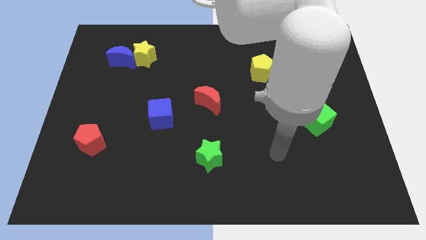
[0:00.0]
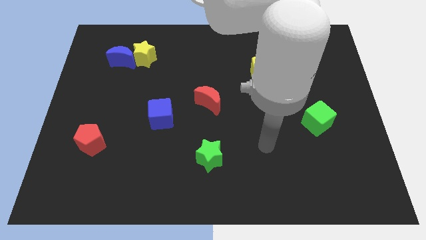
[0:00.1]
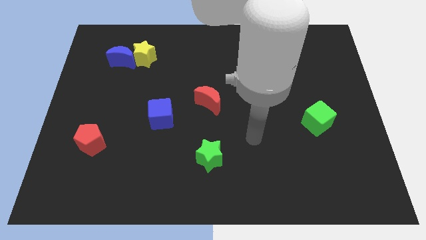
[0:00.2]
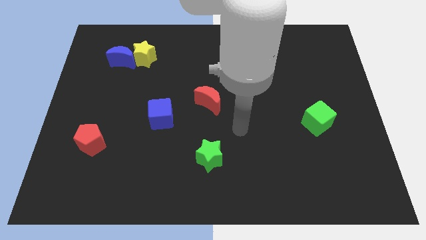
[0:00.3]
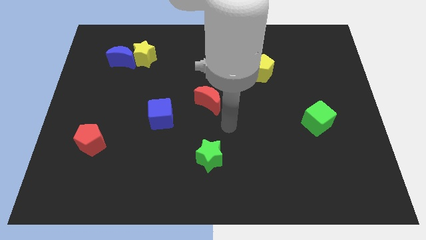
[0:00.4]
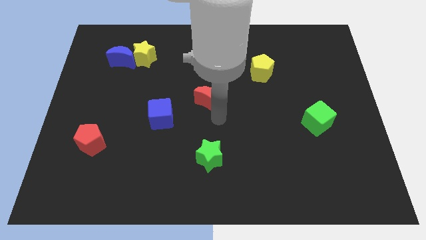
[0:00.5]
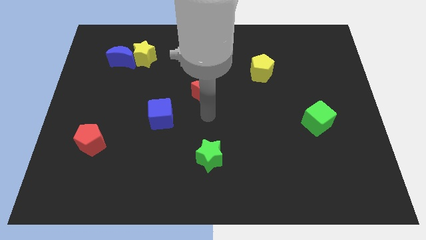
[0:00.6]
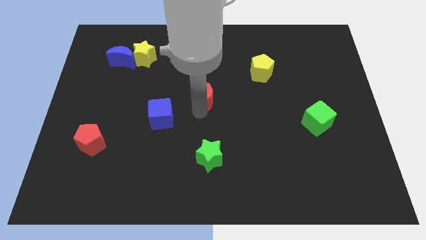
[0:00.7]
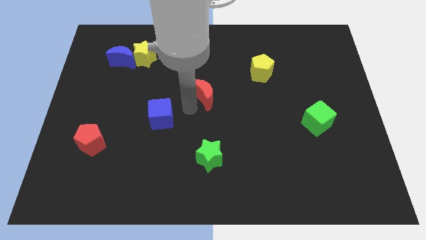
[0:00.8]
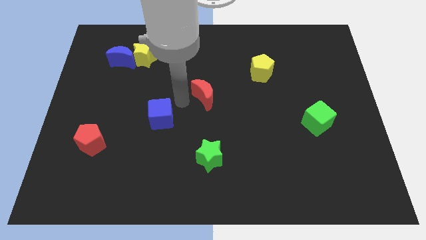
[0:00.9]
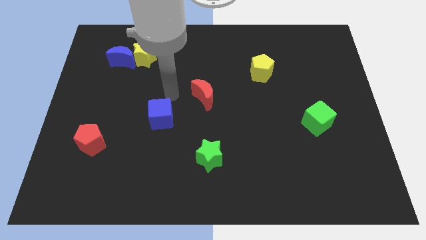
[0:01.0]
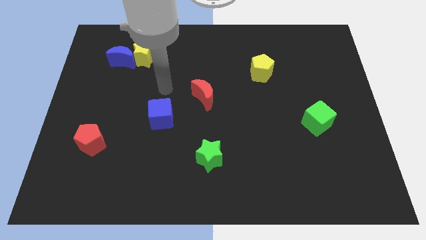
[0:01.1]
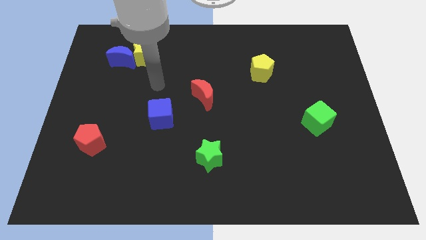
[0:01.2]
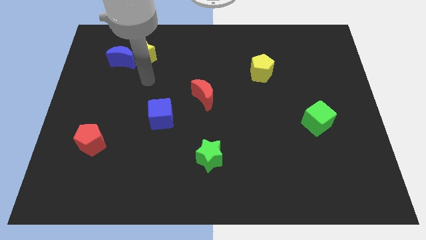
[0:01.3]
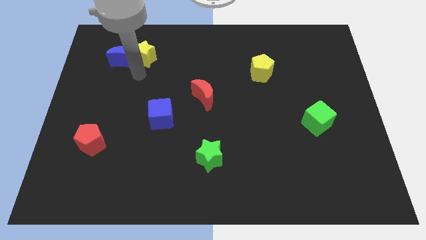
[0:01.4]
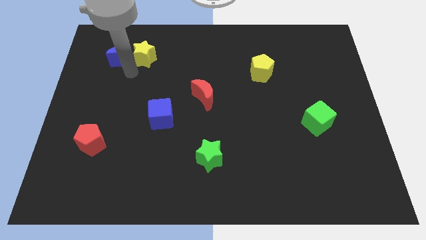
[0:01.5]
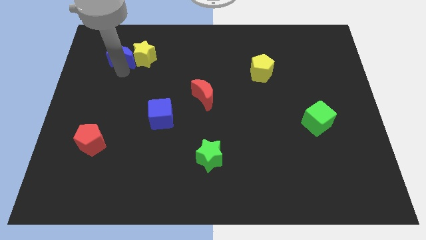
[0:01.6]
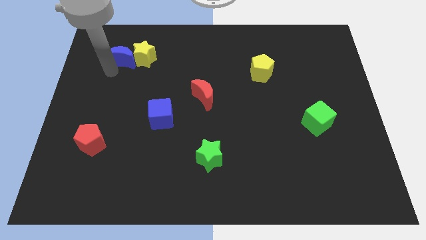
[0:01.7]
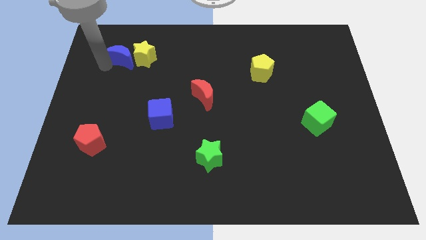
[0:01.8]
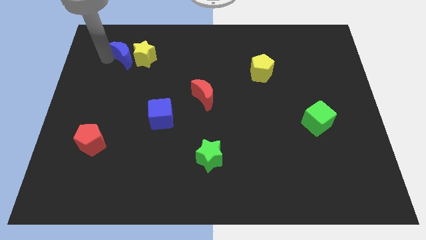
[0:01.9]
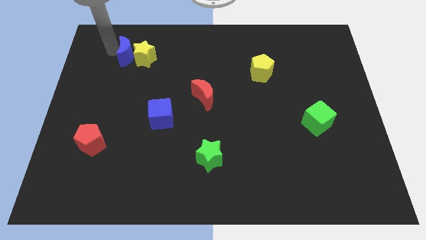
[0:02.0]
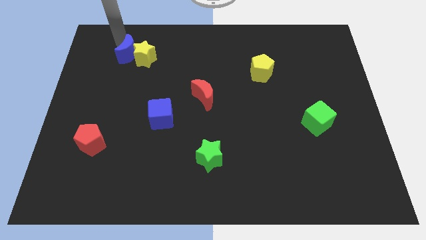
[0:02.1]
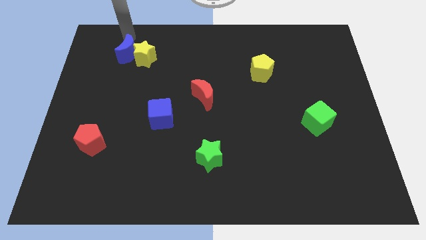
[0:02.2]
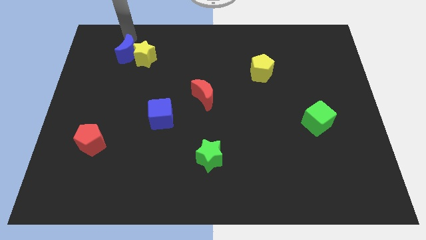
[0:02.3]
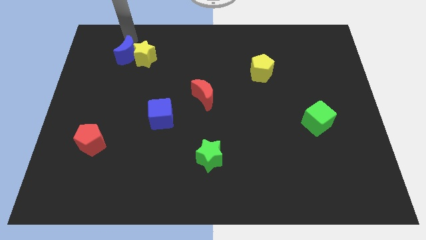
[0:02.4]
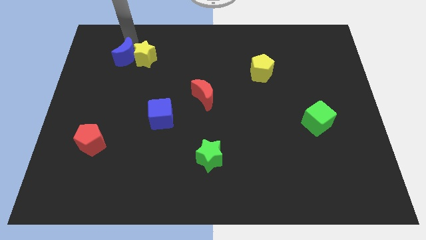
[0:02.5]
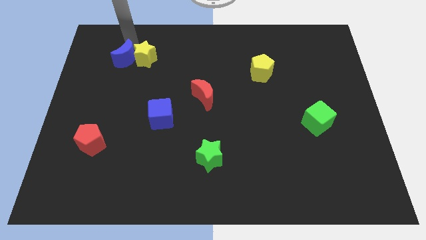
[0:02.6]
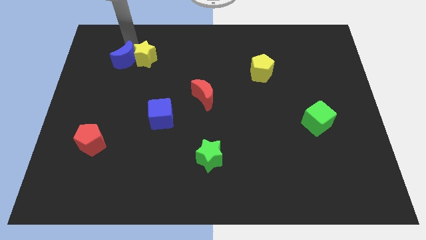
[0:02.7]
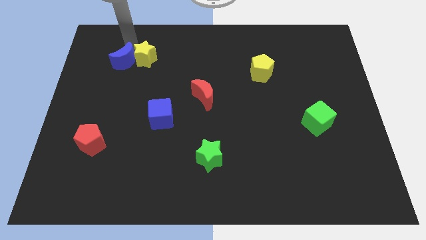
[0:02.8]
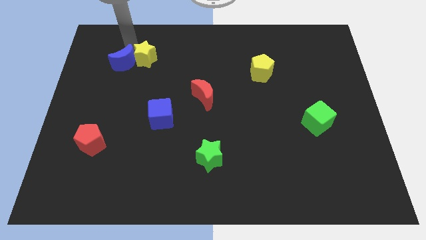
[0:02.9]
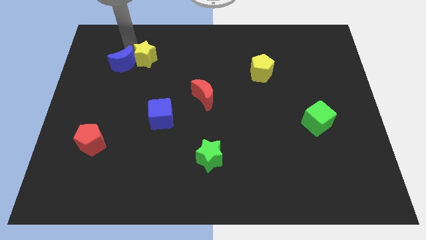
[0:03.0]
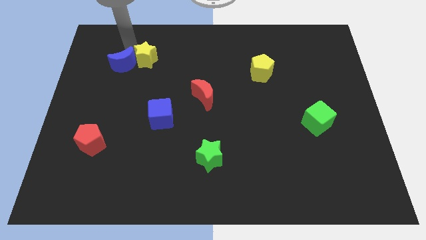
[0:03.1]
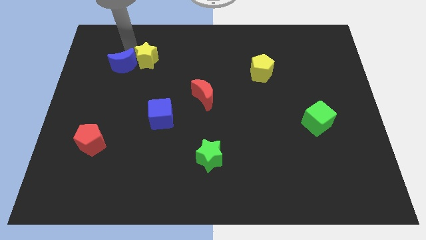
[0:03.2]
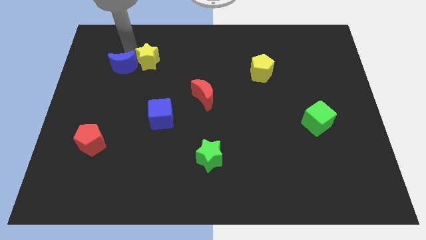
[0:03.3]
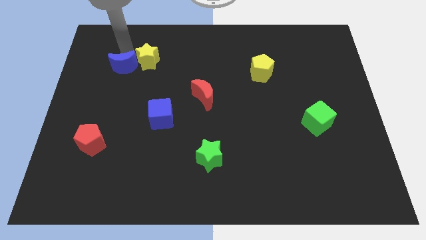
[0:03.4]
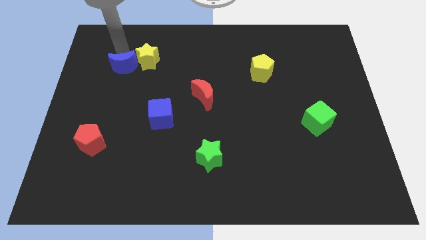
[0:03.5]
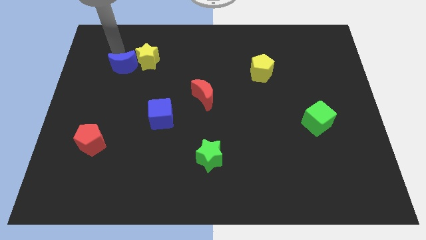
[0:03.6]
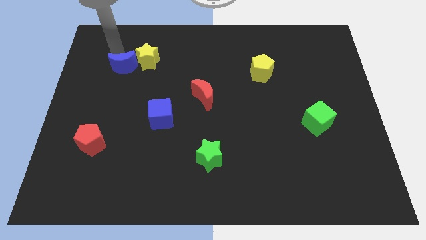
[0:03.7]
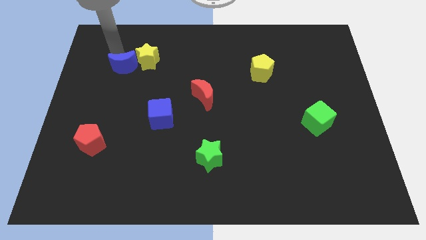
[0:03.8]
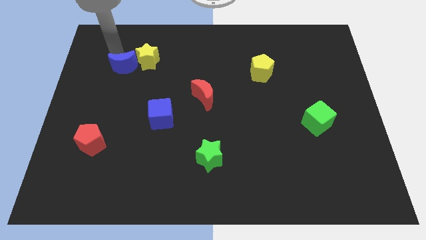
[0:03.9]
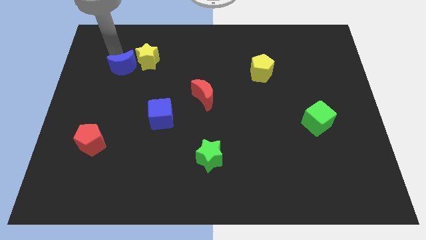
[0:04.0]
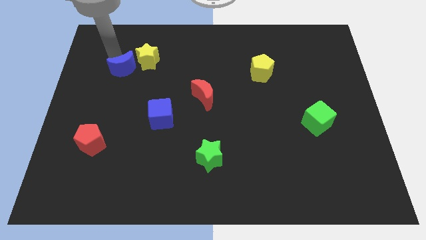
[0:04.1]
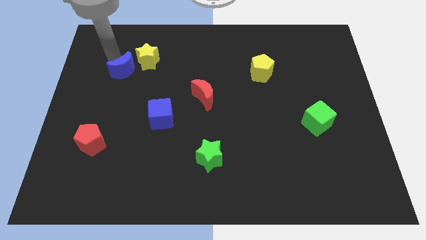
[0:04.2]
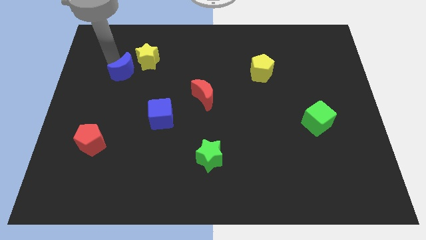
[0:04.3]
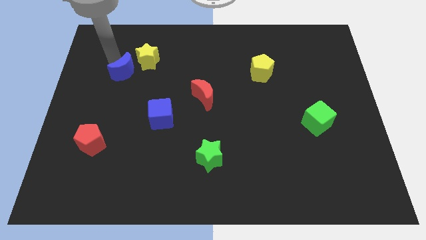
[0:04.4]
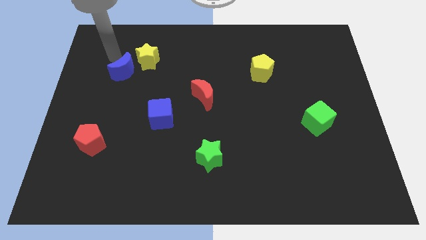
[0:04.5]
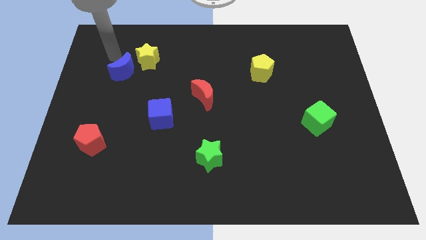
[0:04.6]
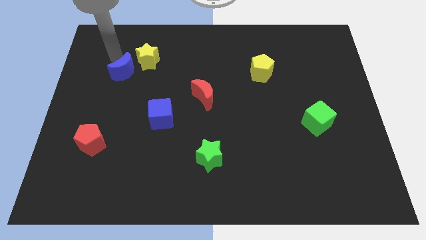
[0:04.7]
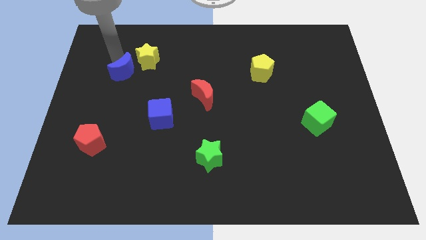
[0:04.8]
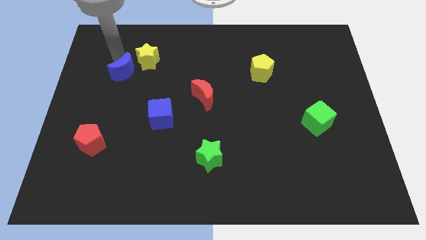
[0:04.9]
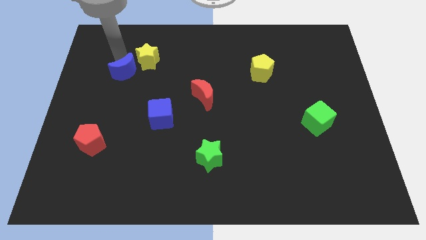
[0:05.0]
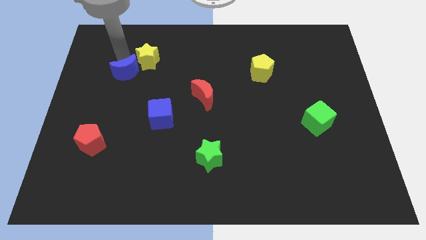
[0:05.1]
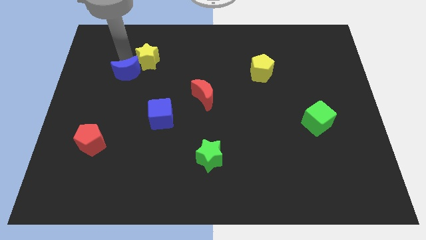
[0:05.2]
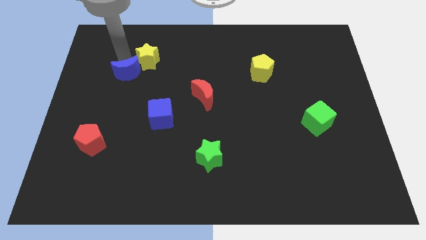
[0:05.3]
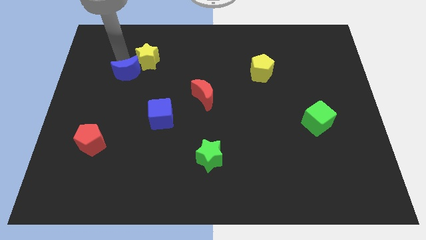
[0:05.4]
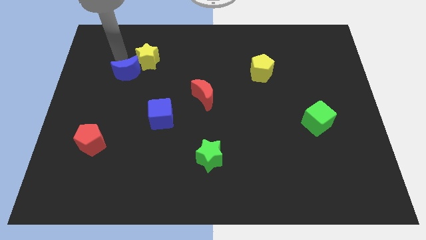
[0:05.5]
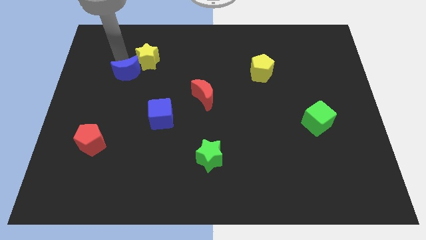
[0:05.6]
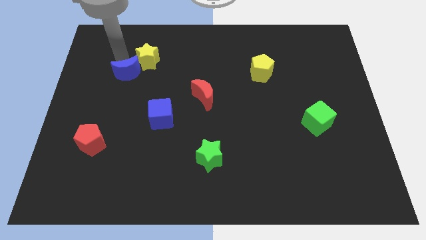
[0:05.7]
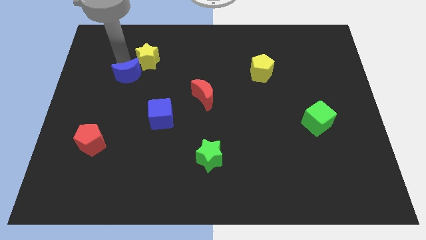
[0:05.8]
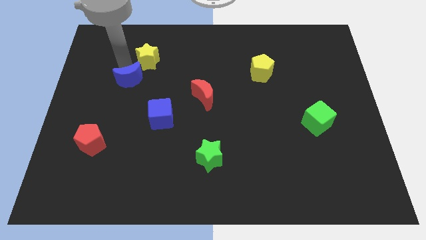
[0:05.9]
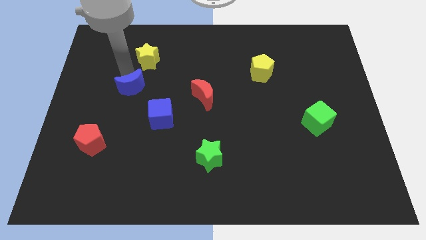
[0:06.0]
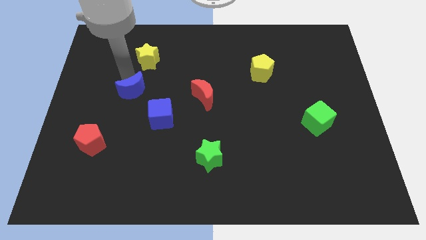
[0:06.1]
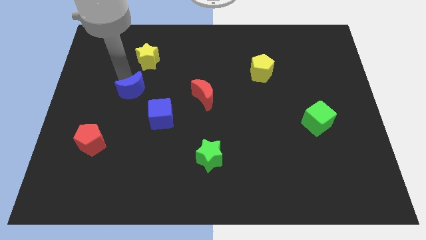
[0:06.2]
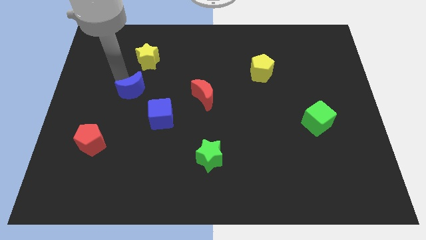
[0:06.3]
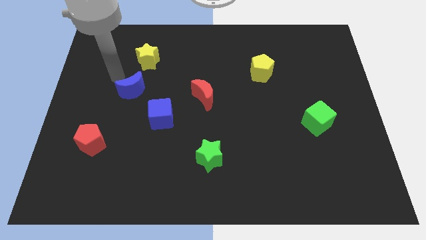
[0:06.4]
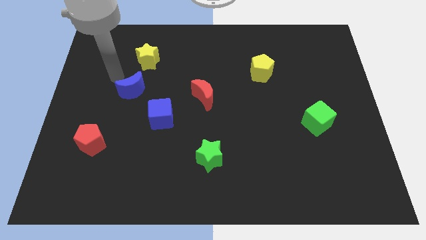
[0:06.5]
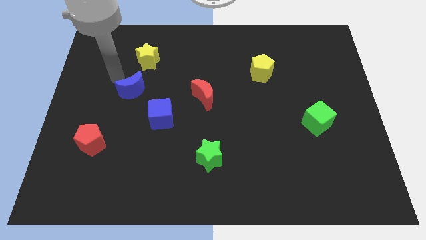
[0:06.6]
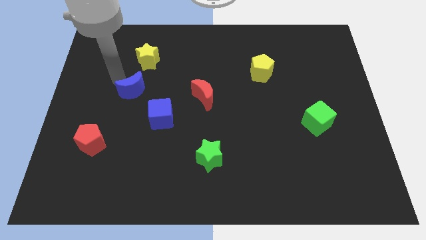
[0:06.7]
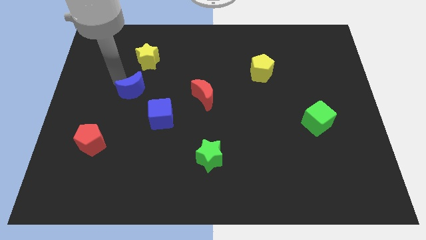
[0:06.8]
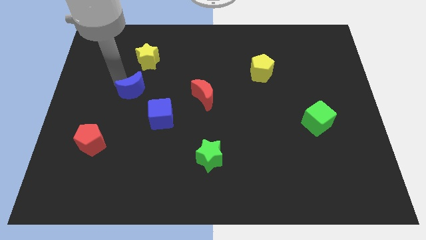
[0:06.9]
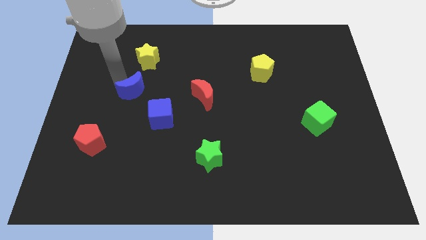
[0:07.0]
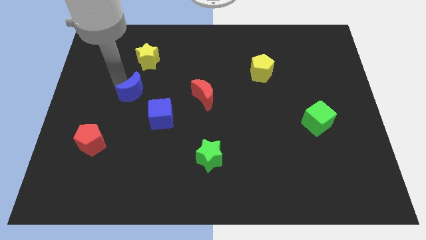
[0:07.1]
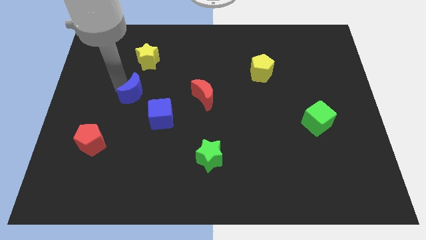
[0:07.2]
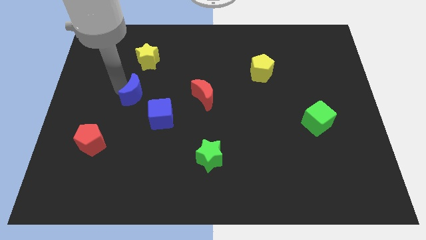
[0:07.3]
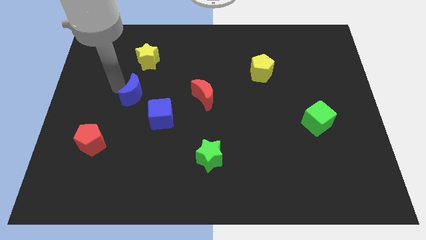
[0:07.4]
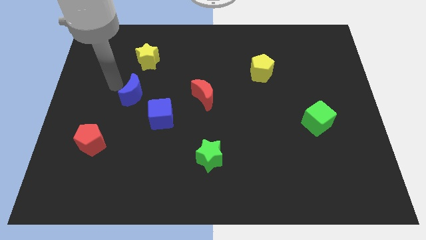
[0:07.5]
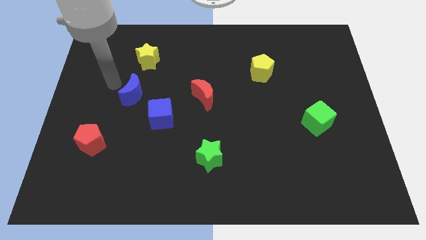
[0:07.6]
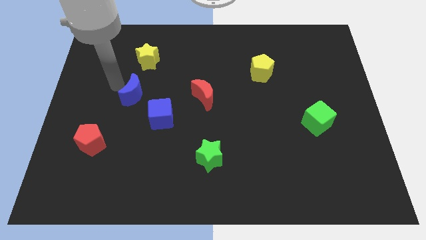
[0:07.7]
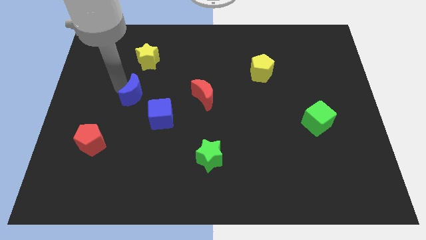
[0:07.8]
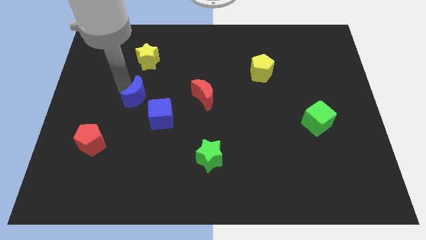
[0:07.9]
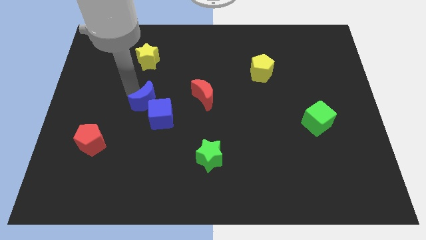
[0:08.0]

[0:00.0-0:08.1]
slide the blue moon close to the blue cube
